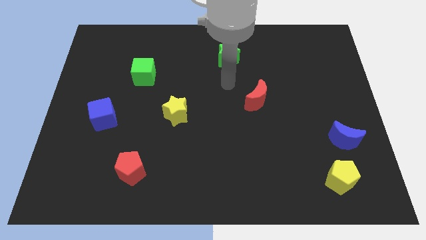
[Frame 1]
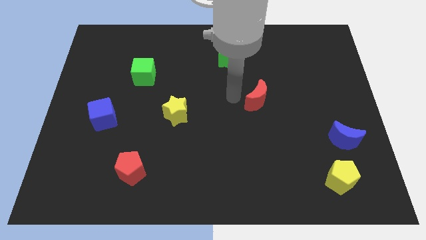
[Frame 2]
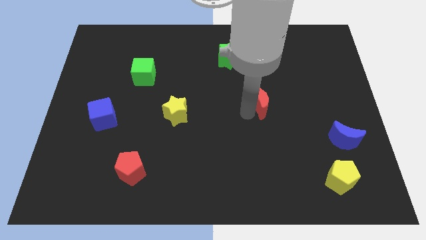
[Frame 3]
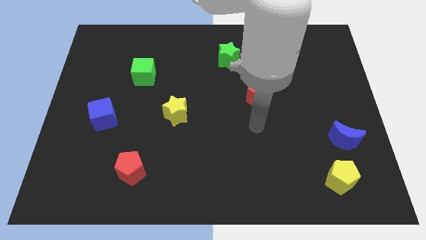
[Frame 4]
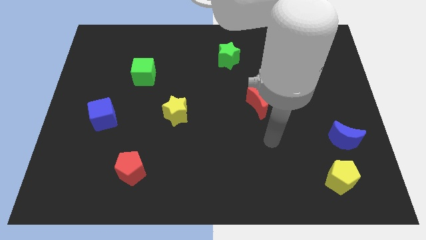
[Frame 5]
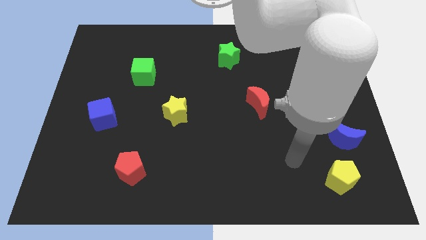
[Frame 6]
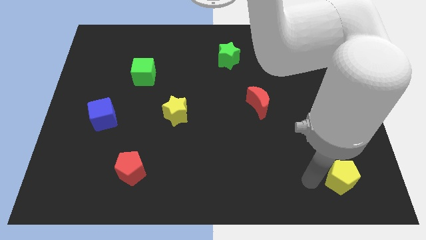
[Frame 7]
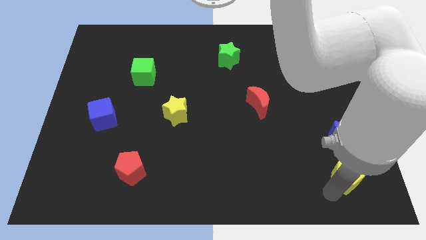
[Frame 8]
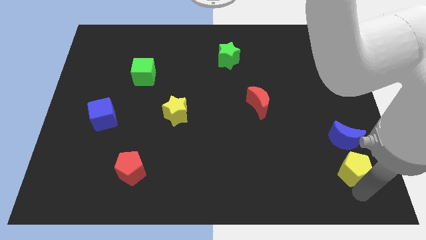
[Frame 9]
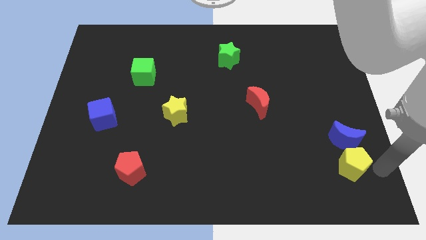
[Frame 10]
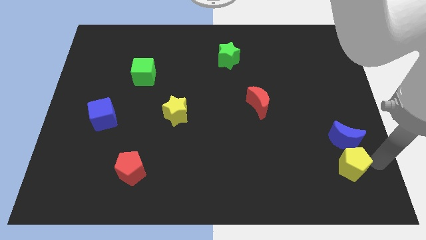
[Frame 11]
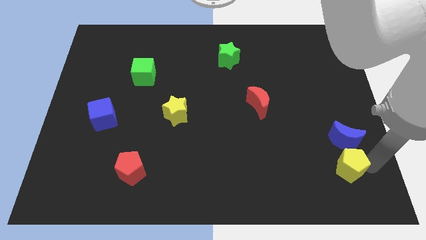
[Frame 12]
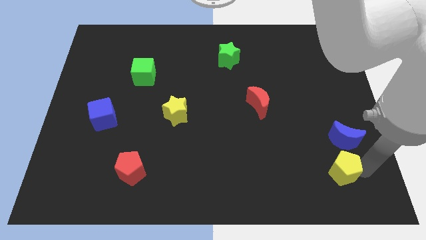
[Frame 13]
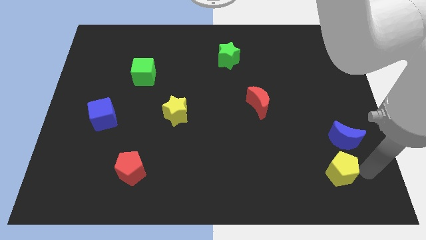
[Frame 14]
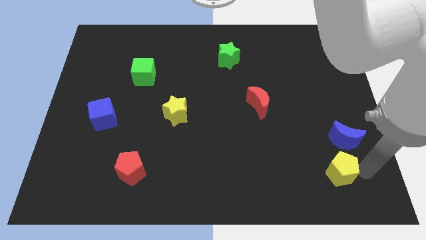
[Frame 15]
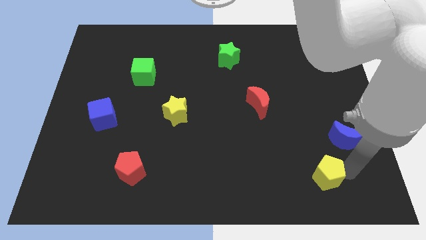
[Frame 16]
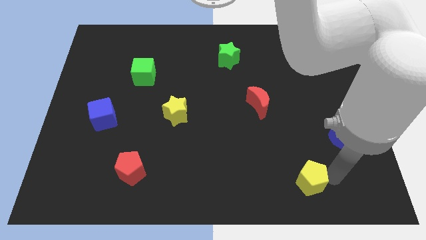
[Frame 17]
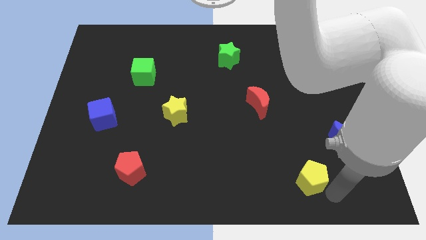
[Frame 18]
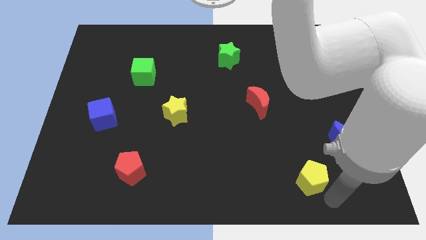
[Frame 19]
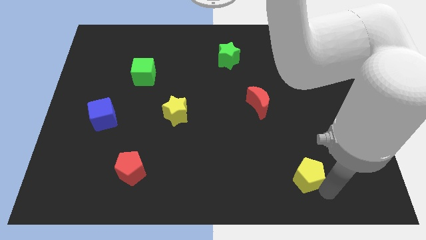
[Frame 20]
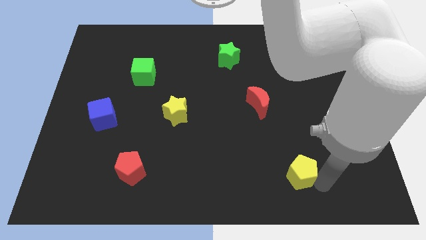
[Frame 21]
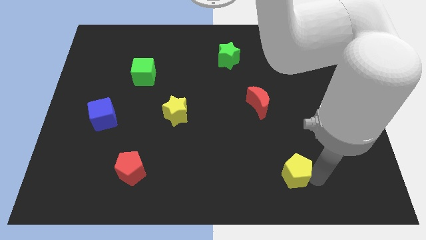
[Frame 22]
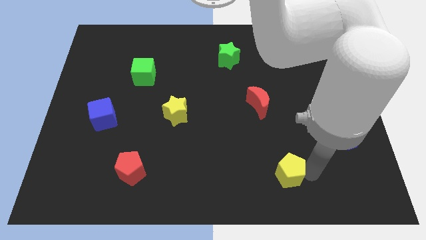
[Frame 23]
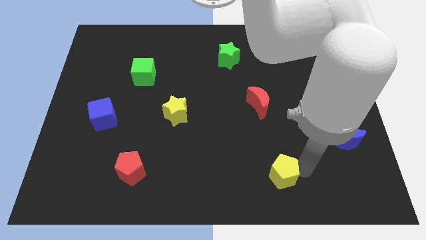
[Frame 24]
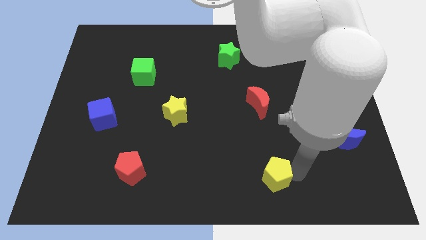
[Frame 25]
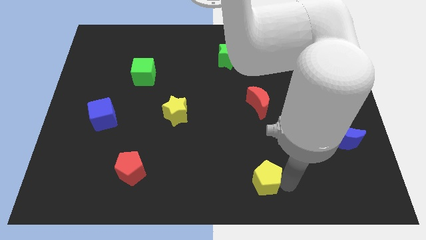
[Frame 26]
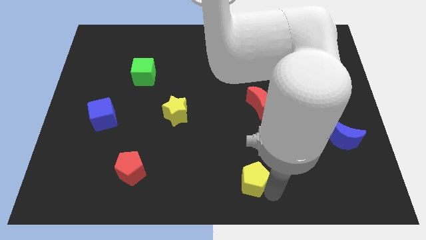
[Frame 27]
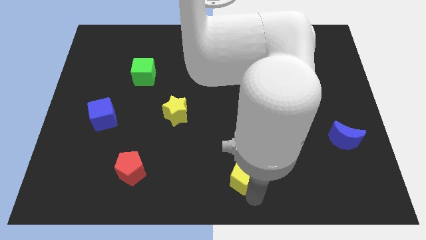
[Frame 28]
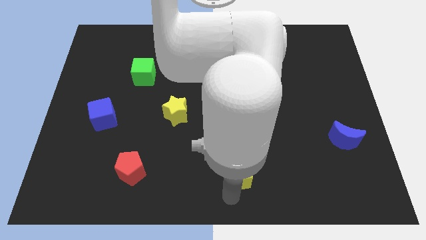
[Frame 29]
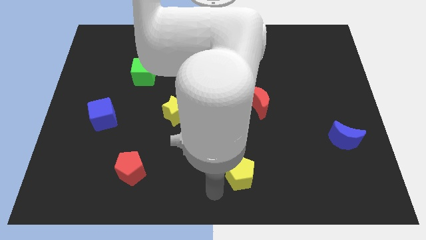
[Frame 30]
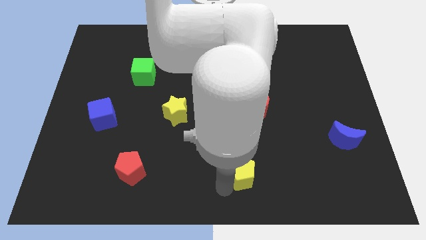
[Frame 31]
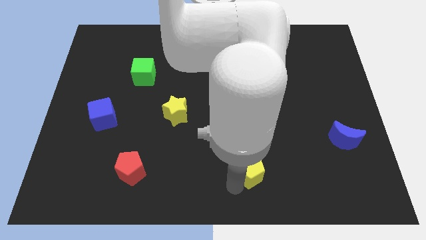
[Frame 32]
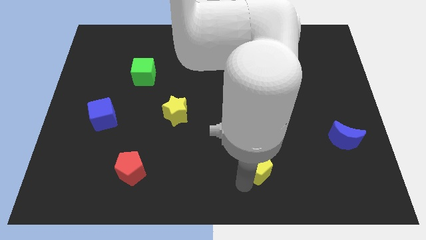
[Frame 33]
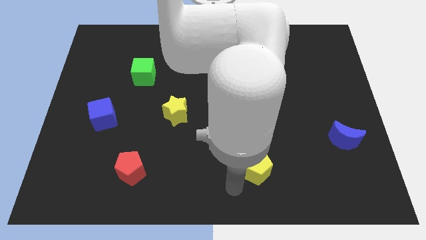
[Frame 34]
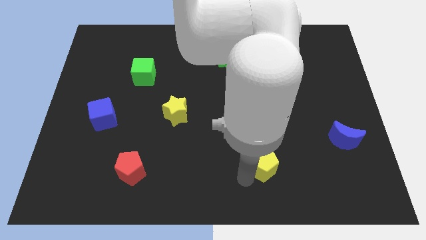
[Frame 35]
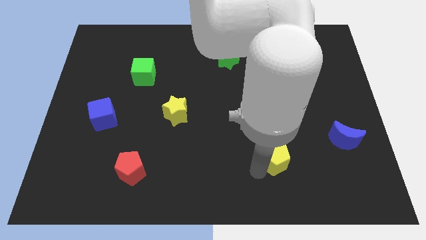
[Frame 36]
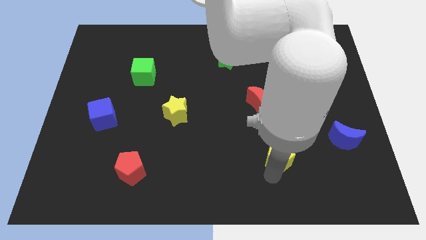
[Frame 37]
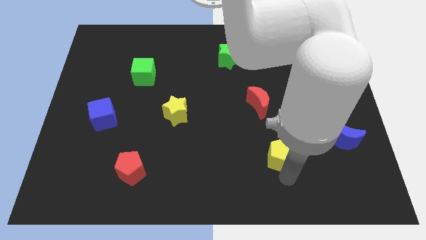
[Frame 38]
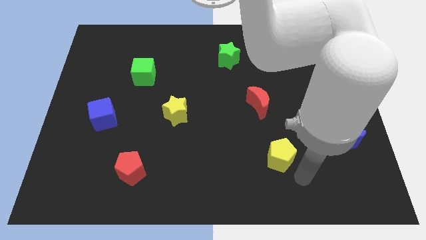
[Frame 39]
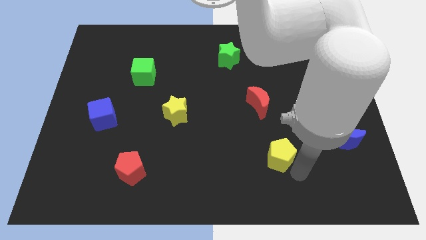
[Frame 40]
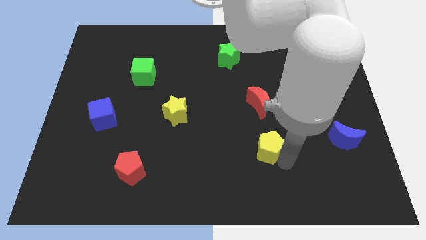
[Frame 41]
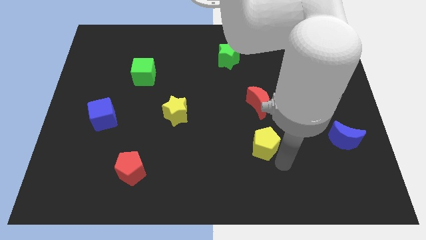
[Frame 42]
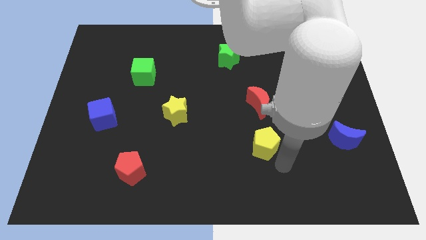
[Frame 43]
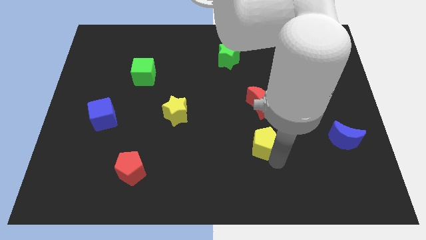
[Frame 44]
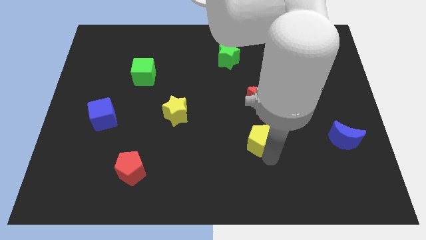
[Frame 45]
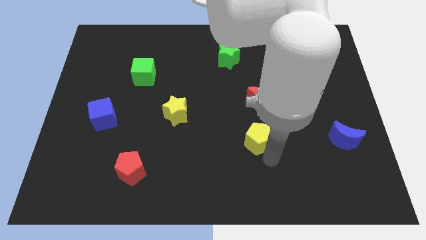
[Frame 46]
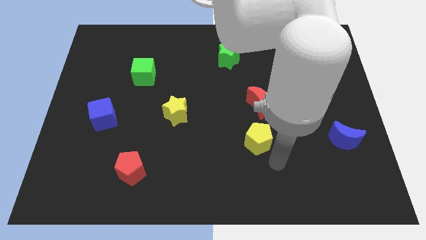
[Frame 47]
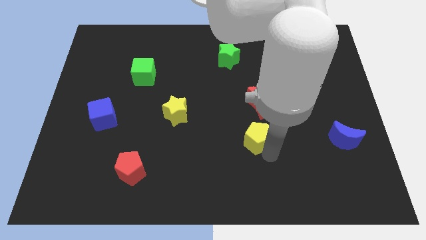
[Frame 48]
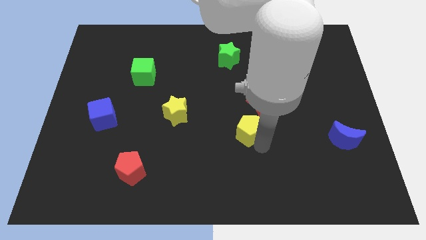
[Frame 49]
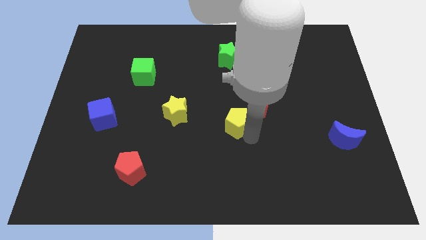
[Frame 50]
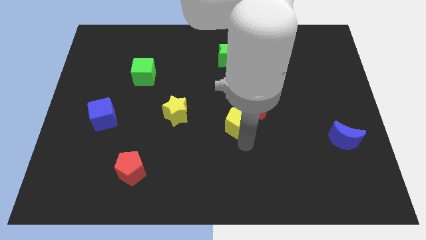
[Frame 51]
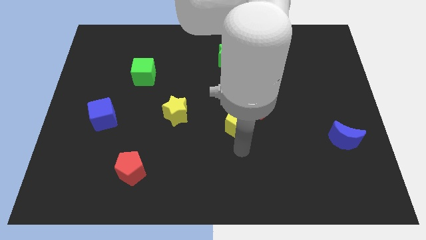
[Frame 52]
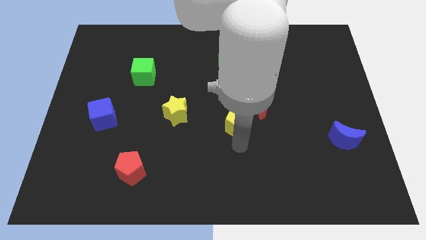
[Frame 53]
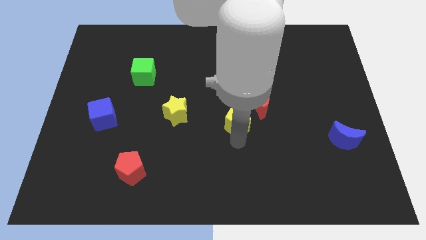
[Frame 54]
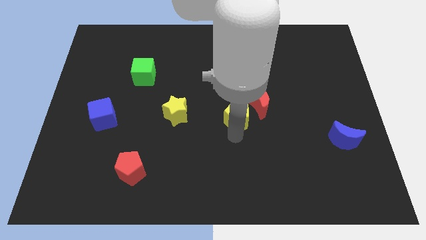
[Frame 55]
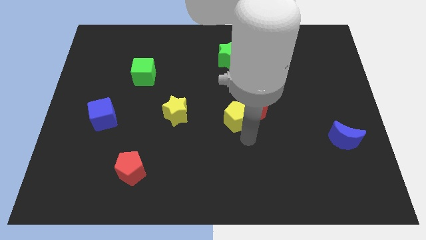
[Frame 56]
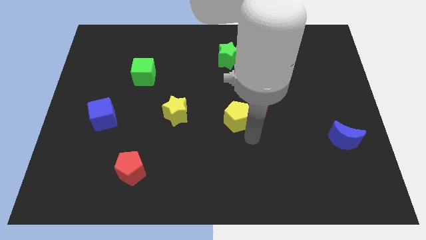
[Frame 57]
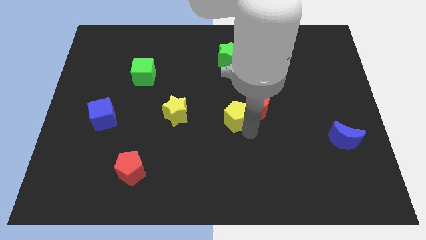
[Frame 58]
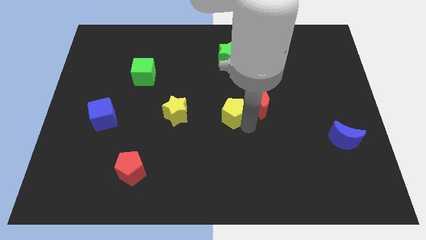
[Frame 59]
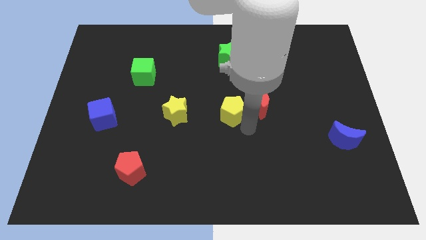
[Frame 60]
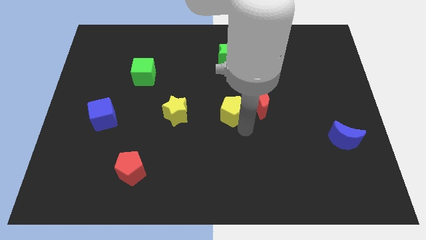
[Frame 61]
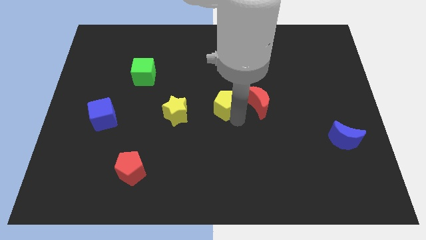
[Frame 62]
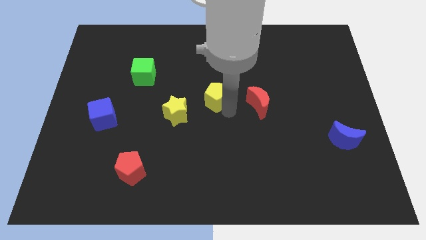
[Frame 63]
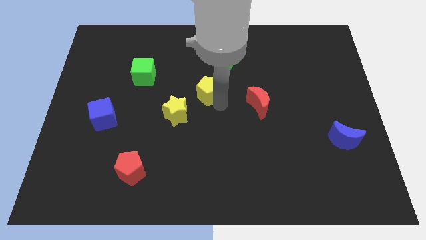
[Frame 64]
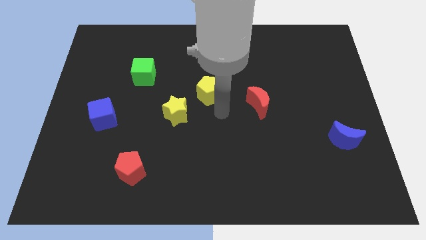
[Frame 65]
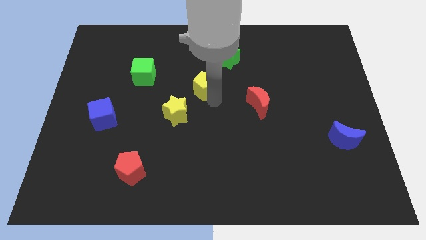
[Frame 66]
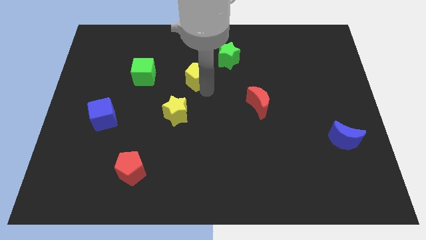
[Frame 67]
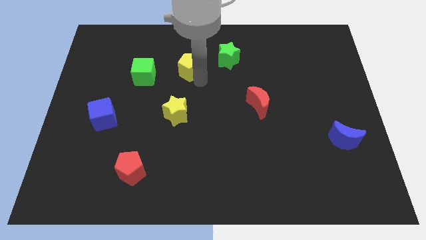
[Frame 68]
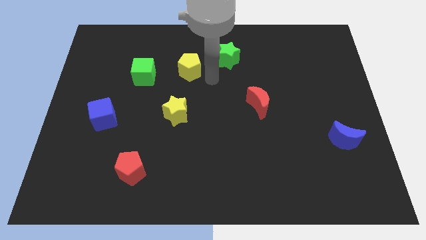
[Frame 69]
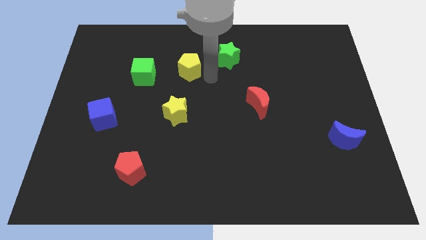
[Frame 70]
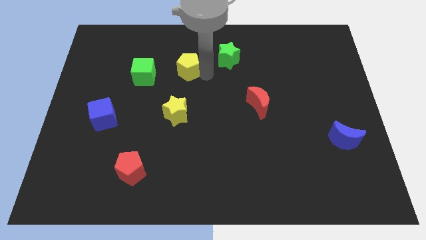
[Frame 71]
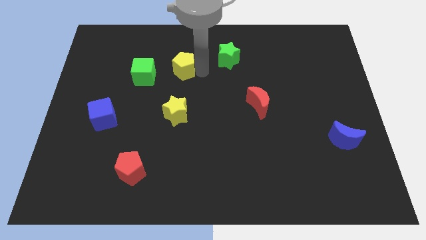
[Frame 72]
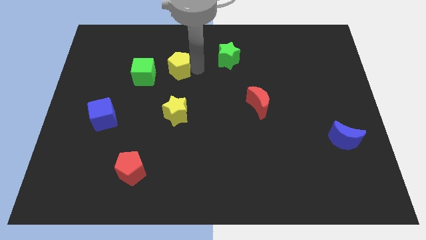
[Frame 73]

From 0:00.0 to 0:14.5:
move the yellow pentagon to the top right of the green cube
